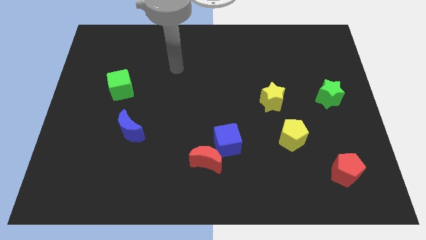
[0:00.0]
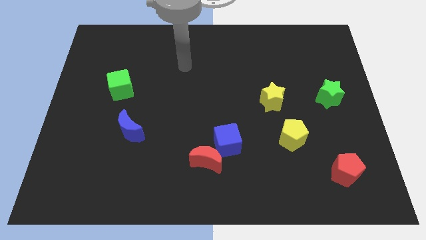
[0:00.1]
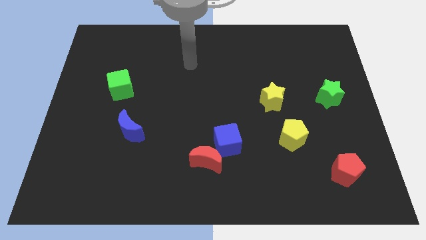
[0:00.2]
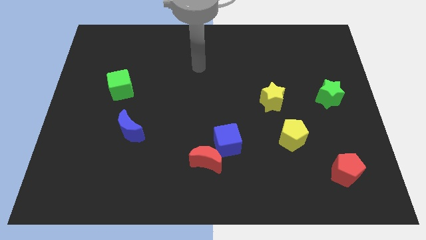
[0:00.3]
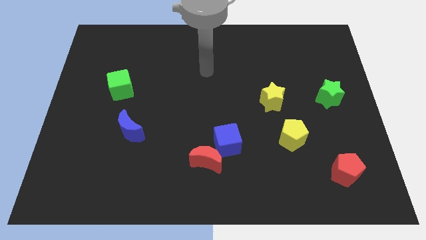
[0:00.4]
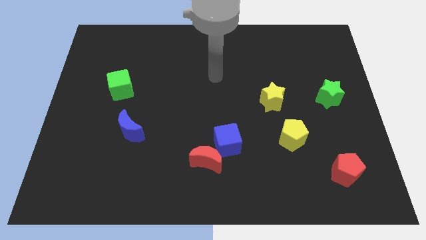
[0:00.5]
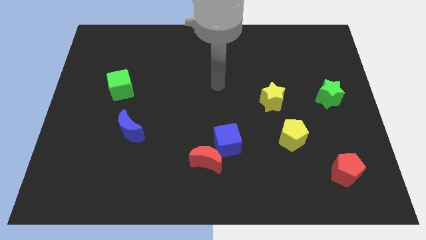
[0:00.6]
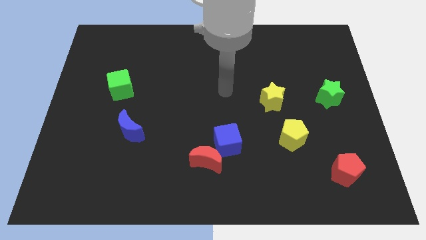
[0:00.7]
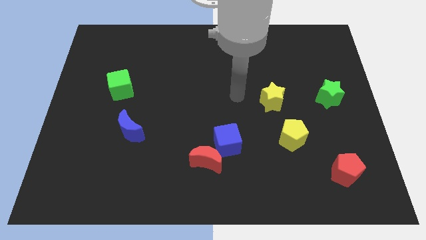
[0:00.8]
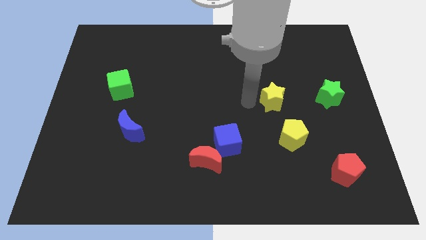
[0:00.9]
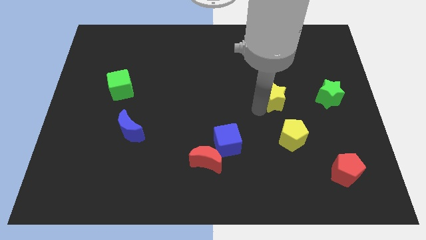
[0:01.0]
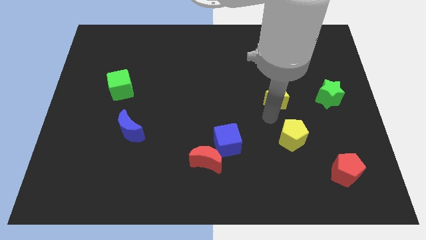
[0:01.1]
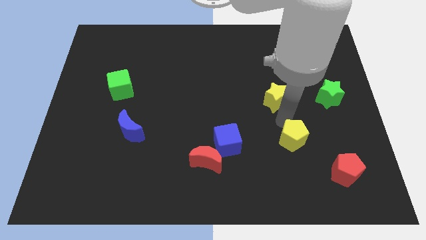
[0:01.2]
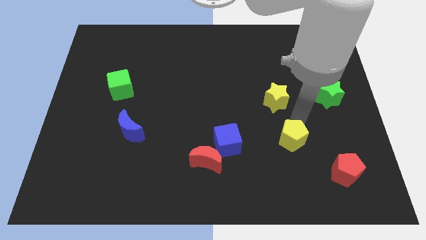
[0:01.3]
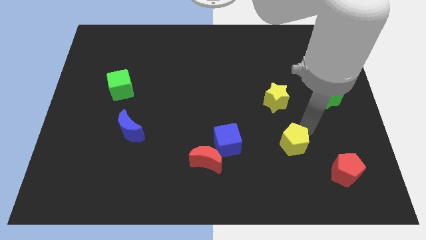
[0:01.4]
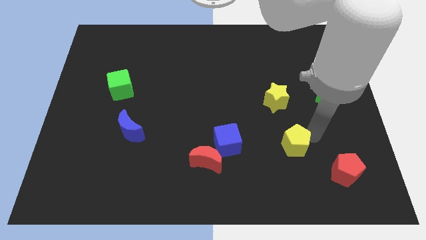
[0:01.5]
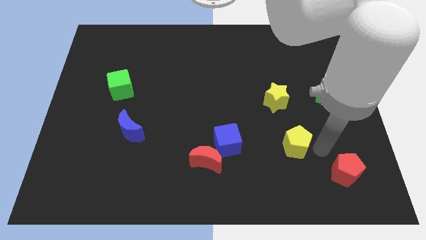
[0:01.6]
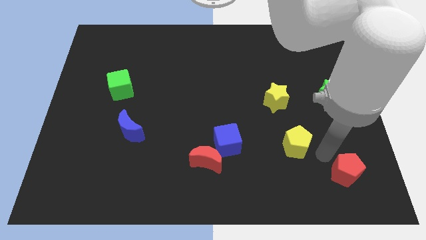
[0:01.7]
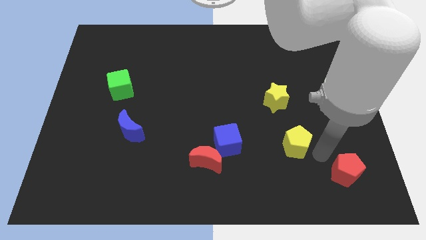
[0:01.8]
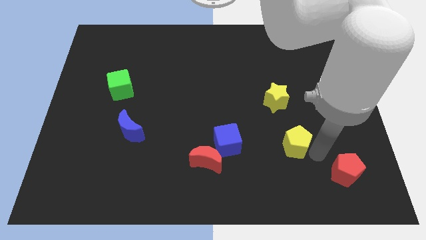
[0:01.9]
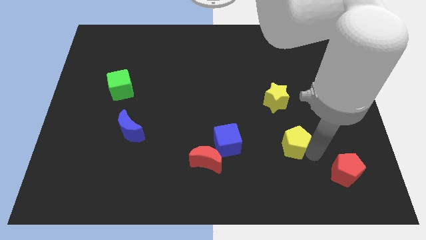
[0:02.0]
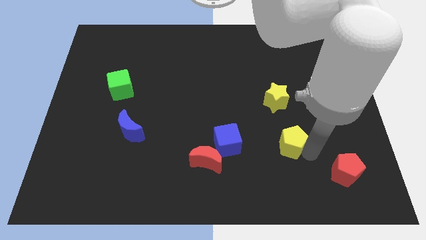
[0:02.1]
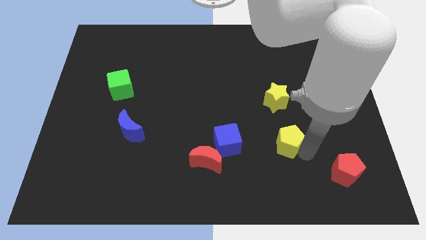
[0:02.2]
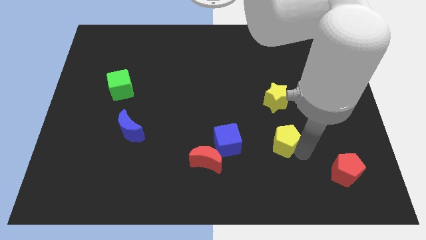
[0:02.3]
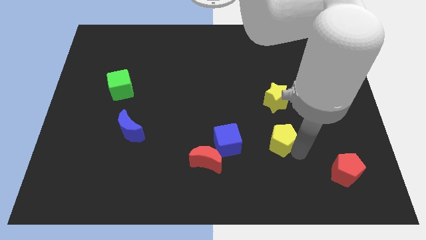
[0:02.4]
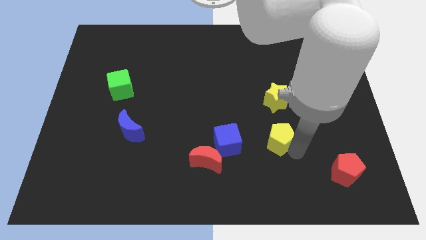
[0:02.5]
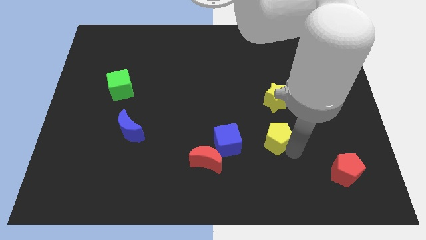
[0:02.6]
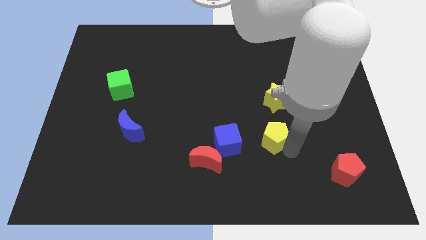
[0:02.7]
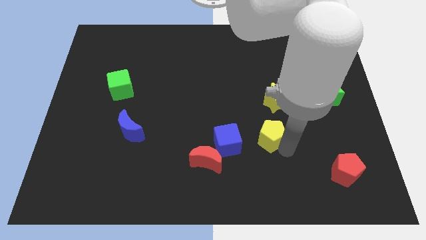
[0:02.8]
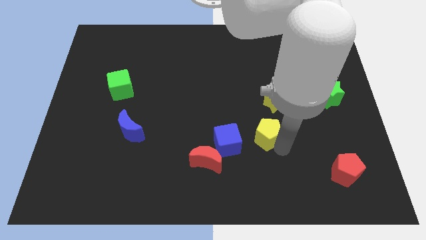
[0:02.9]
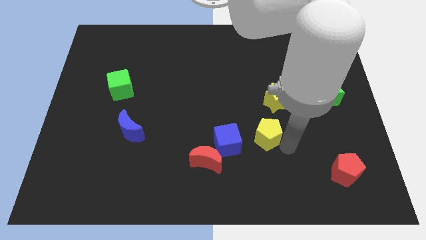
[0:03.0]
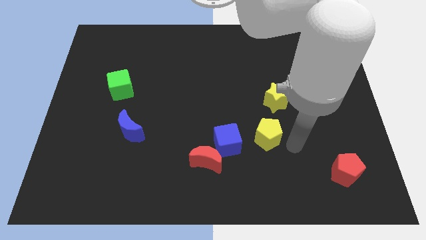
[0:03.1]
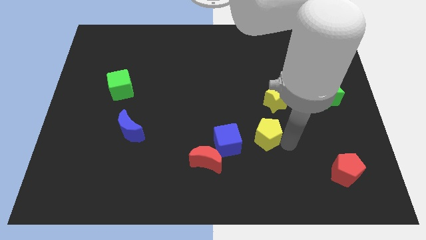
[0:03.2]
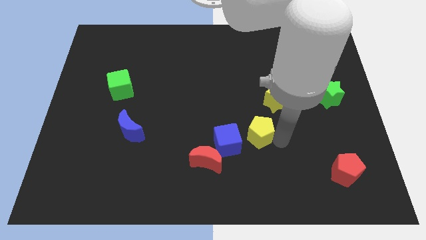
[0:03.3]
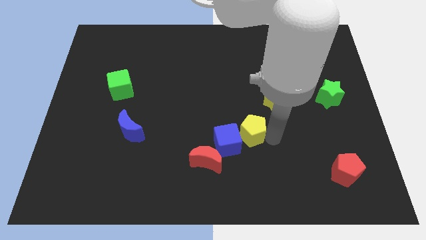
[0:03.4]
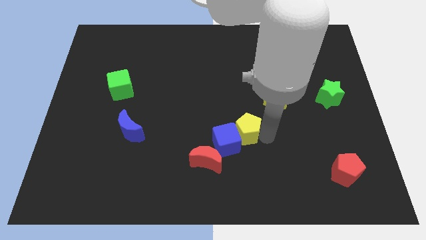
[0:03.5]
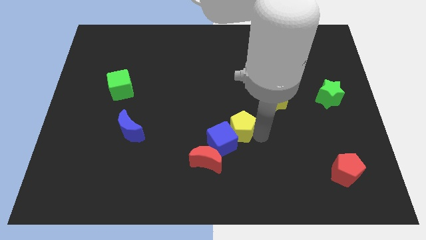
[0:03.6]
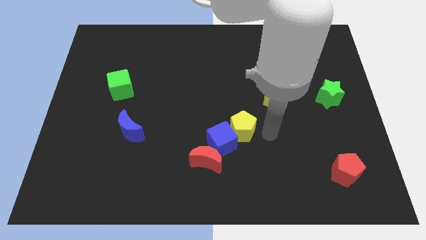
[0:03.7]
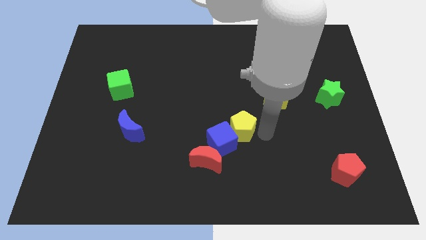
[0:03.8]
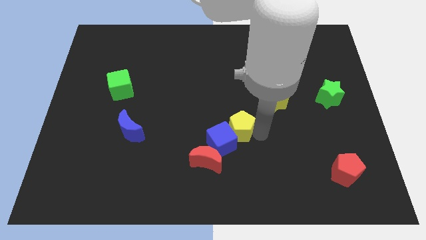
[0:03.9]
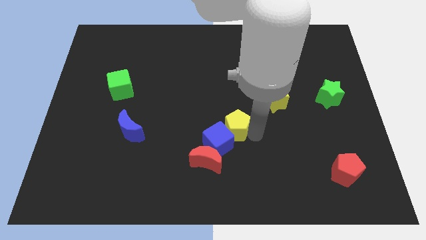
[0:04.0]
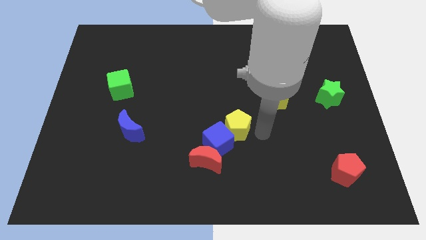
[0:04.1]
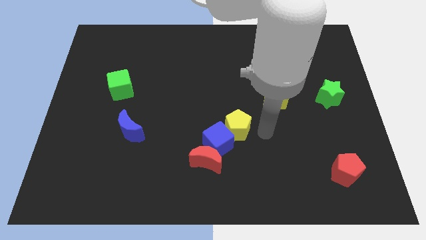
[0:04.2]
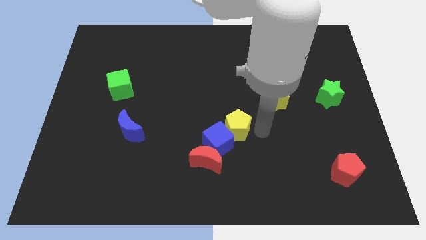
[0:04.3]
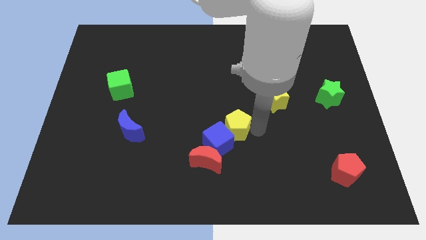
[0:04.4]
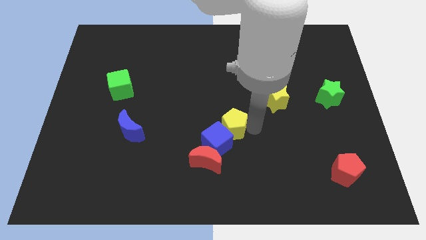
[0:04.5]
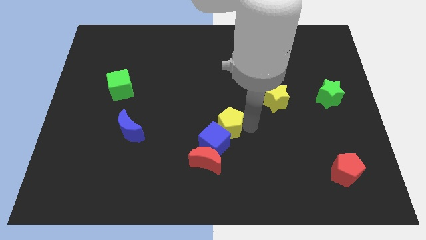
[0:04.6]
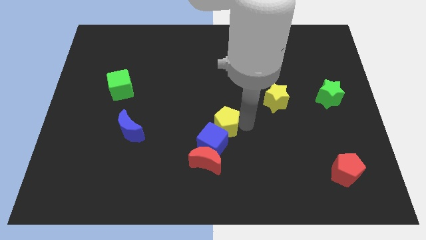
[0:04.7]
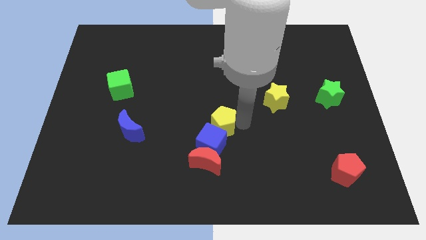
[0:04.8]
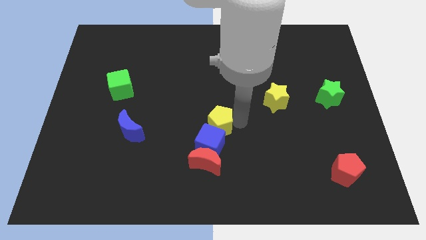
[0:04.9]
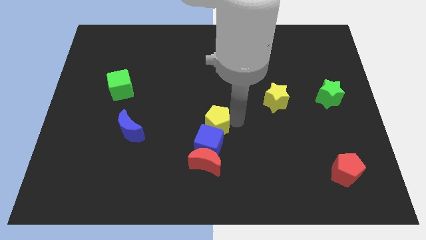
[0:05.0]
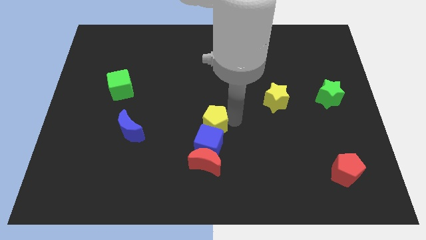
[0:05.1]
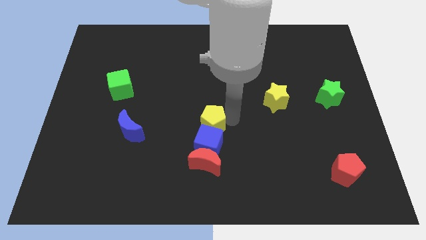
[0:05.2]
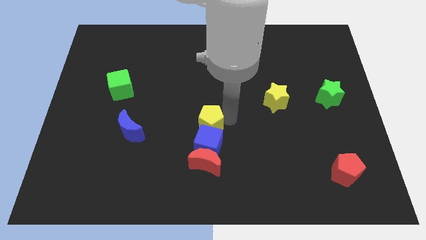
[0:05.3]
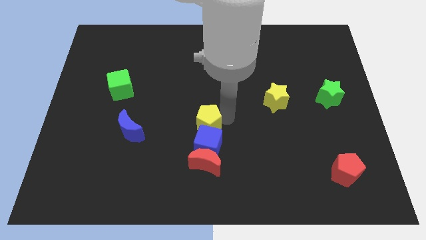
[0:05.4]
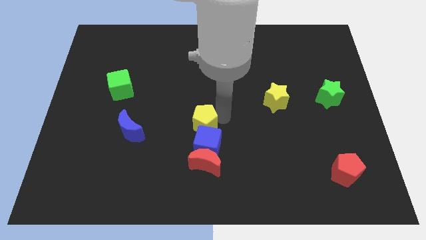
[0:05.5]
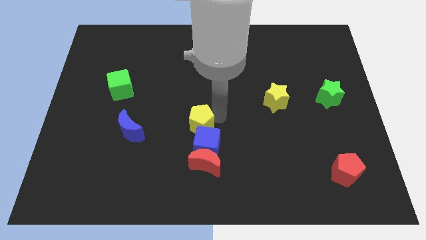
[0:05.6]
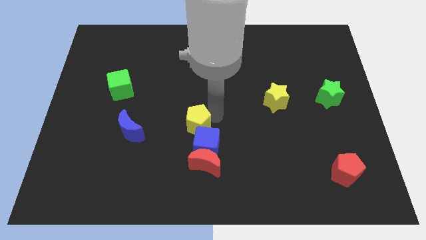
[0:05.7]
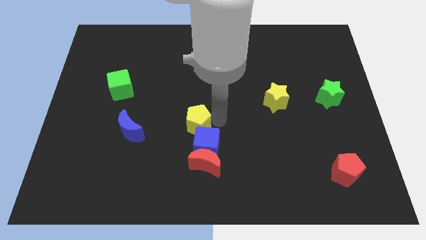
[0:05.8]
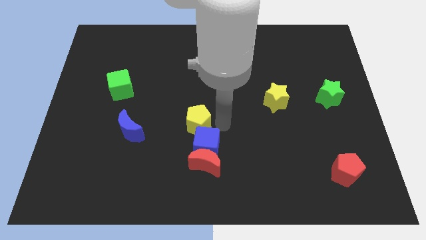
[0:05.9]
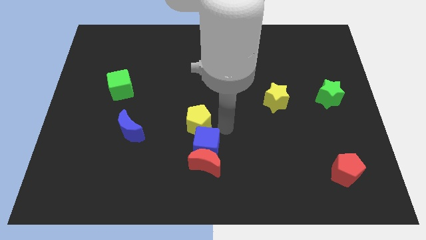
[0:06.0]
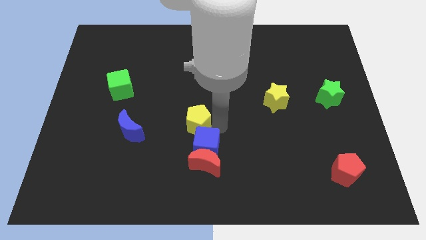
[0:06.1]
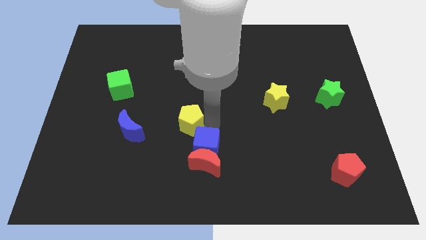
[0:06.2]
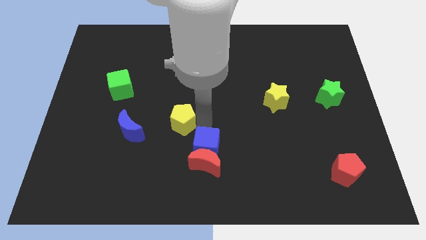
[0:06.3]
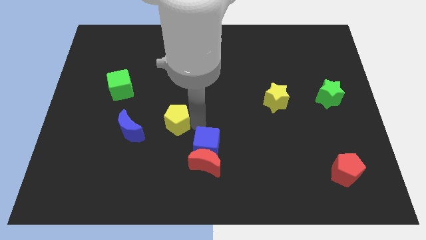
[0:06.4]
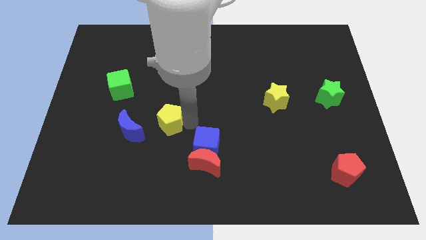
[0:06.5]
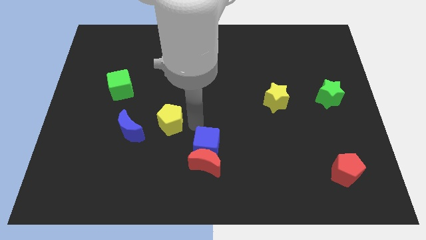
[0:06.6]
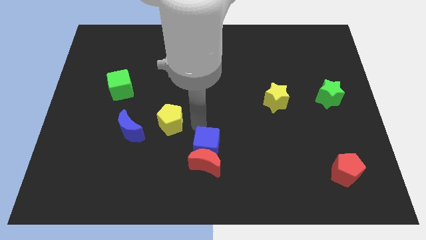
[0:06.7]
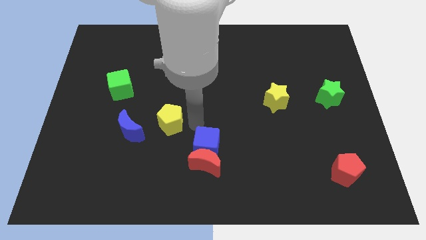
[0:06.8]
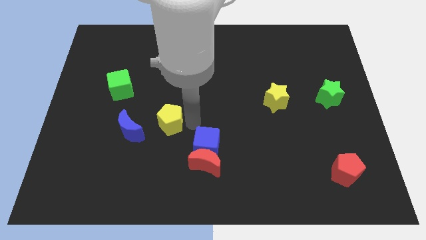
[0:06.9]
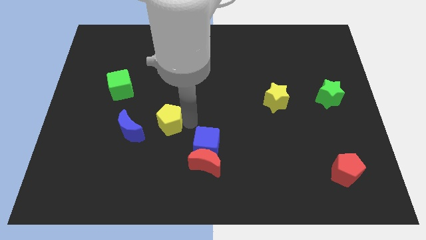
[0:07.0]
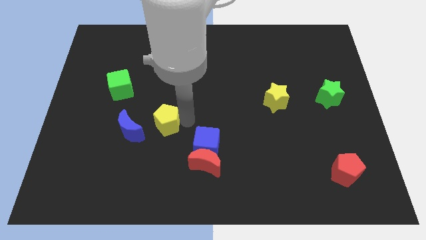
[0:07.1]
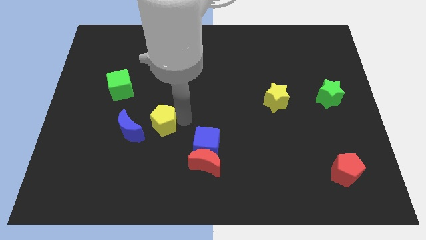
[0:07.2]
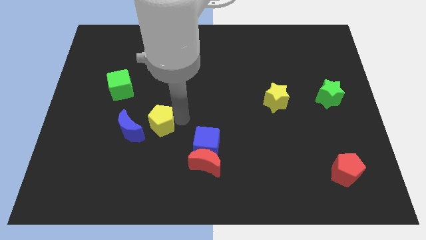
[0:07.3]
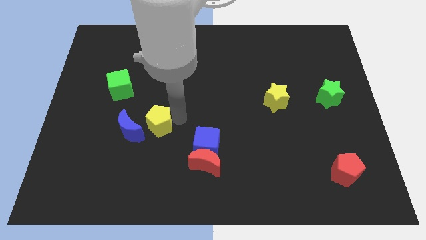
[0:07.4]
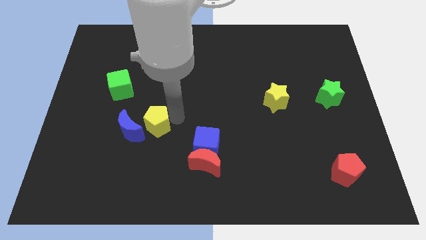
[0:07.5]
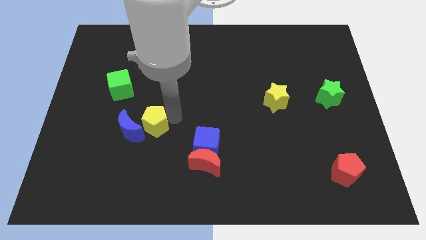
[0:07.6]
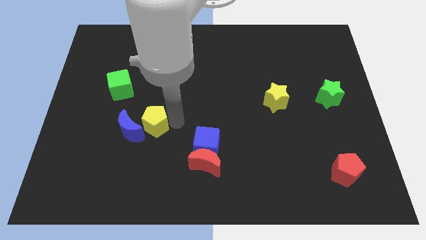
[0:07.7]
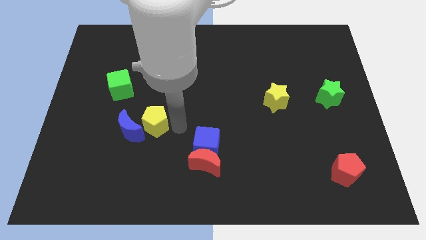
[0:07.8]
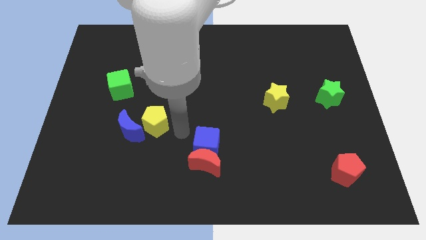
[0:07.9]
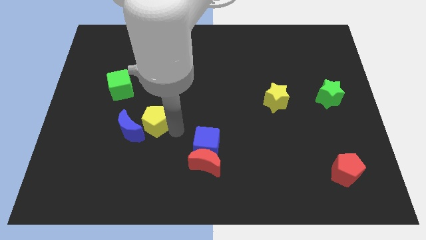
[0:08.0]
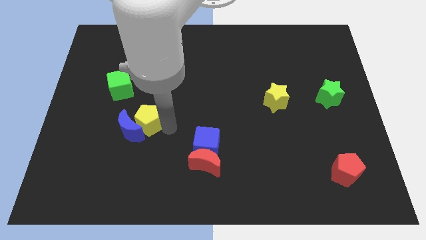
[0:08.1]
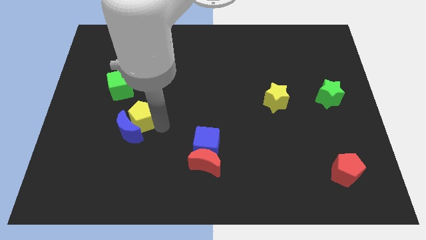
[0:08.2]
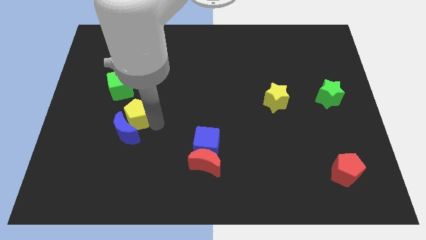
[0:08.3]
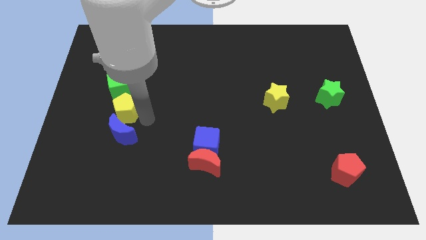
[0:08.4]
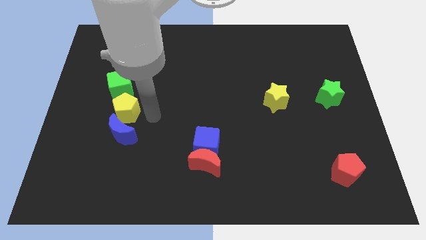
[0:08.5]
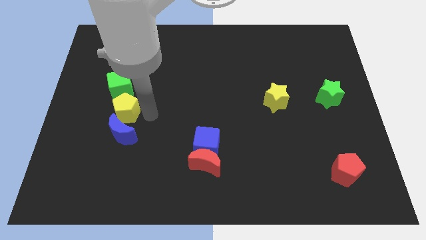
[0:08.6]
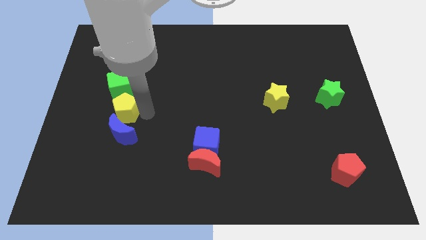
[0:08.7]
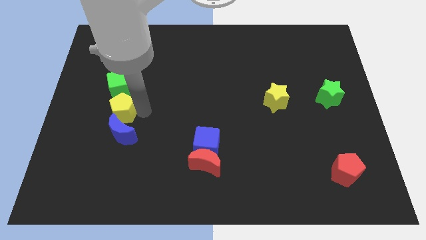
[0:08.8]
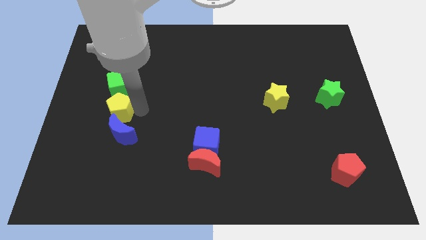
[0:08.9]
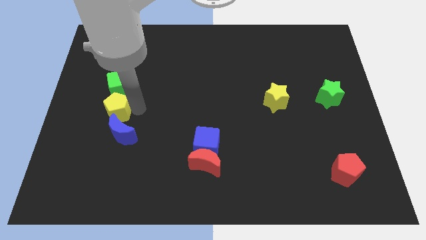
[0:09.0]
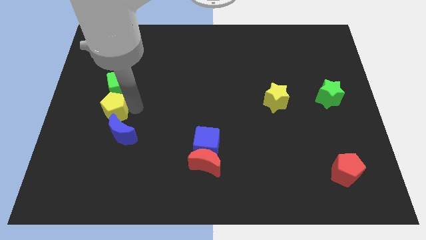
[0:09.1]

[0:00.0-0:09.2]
push the yellow pentagon to the bottom left side of the green cube
